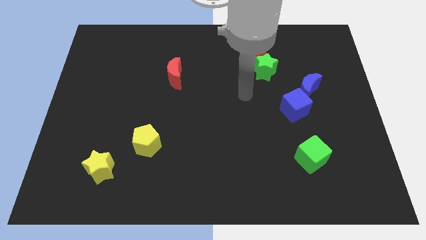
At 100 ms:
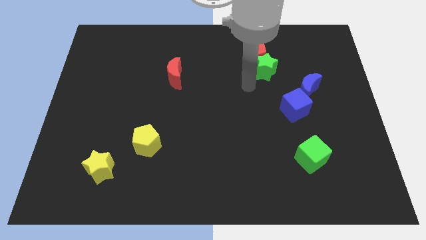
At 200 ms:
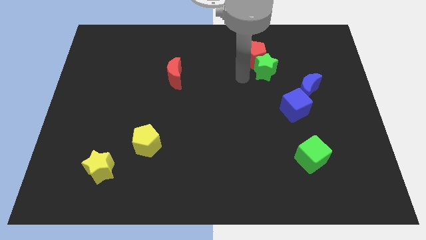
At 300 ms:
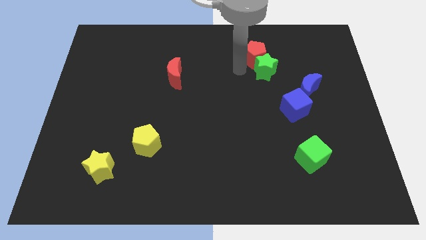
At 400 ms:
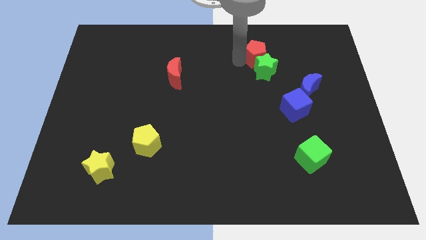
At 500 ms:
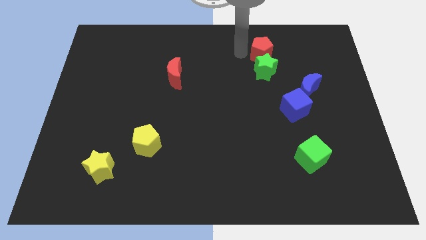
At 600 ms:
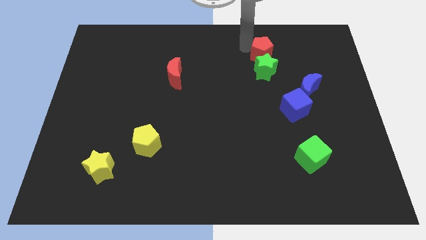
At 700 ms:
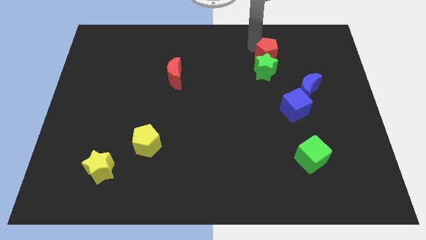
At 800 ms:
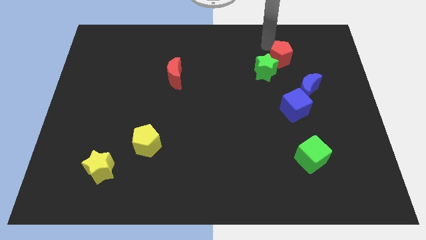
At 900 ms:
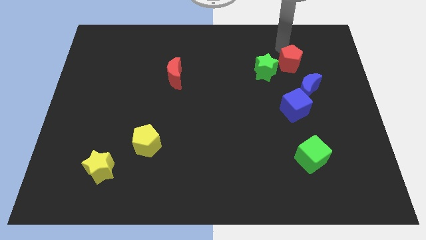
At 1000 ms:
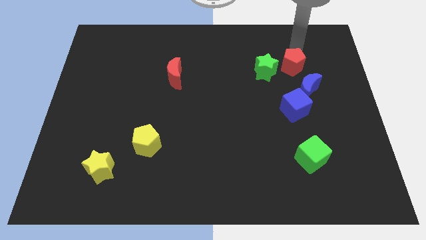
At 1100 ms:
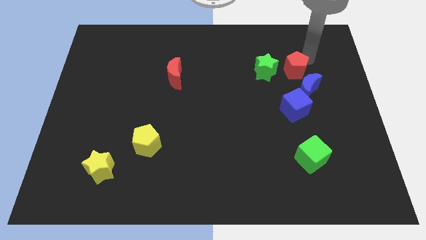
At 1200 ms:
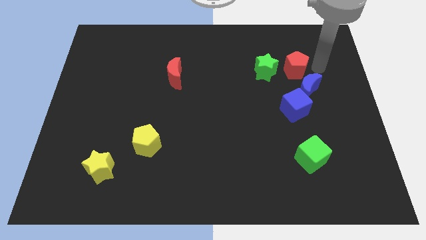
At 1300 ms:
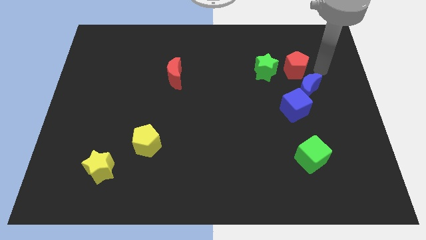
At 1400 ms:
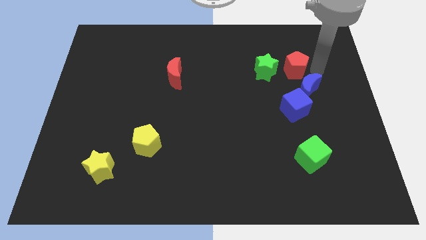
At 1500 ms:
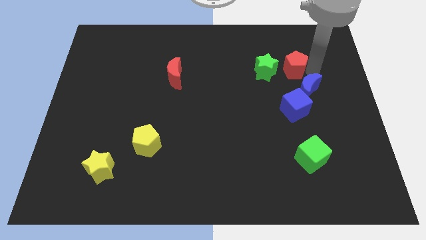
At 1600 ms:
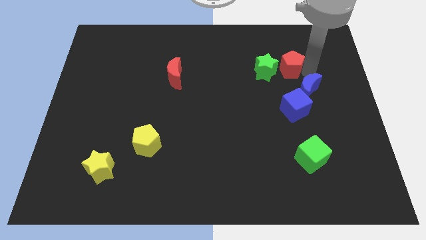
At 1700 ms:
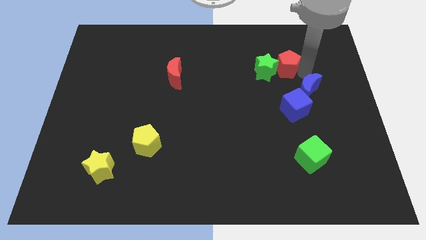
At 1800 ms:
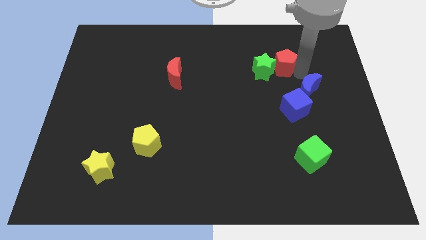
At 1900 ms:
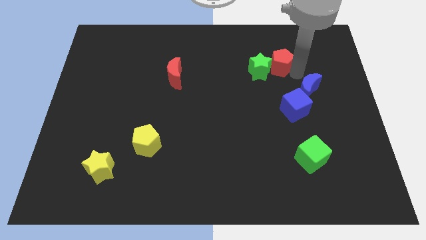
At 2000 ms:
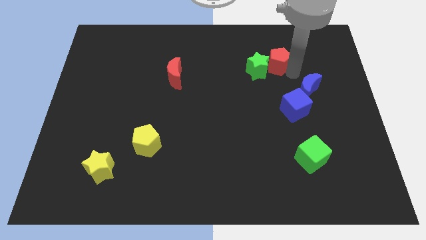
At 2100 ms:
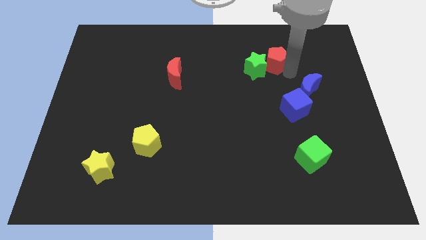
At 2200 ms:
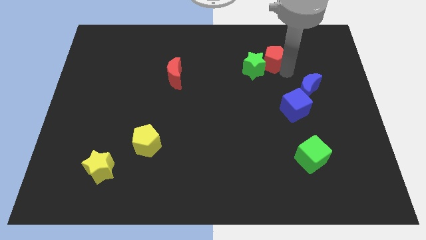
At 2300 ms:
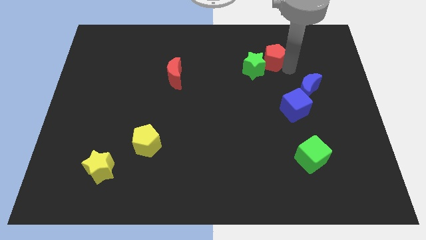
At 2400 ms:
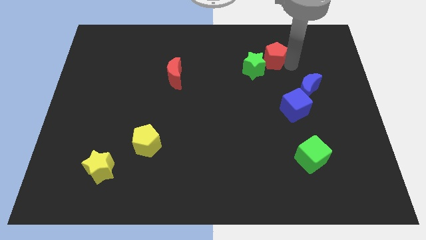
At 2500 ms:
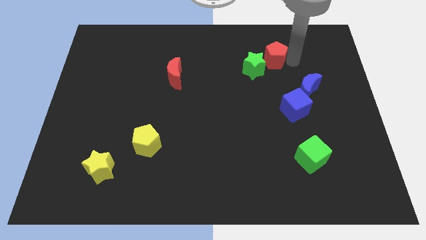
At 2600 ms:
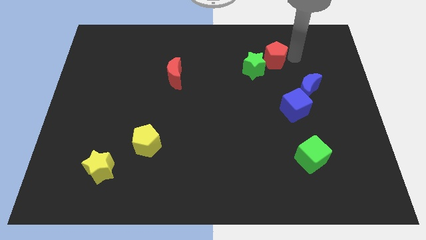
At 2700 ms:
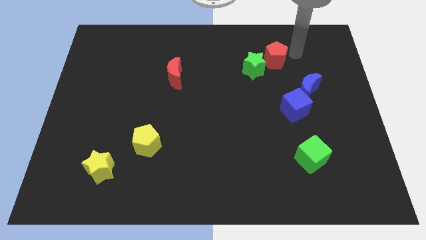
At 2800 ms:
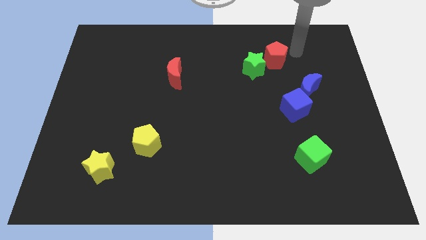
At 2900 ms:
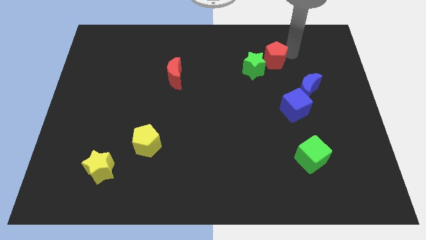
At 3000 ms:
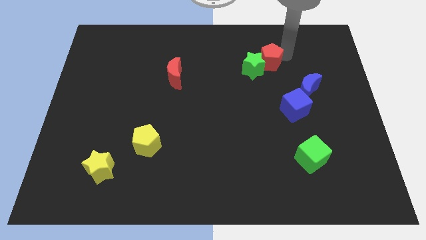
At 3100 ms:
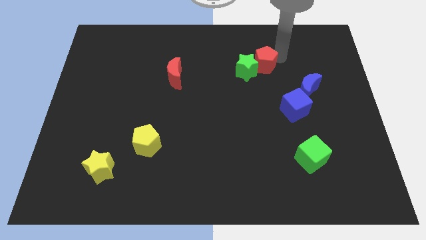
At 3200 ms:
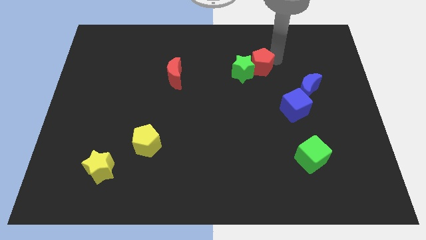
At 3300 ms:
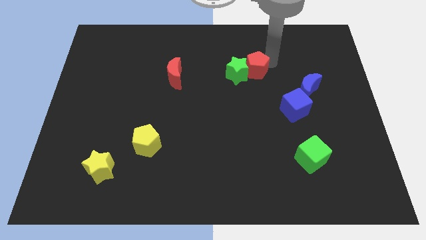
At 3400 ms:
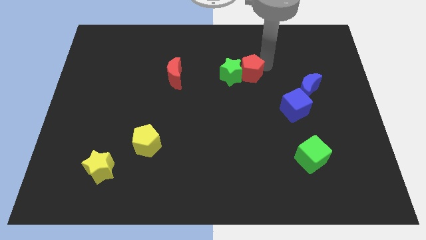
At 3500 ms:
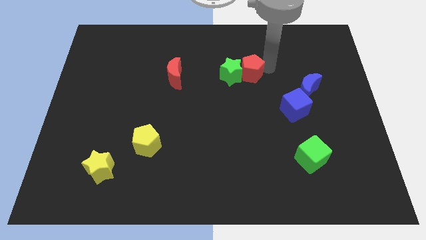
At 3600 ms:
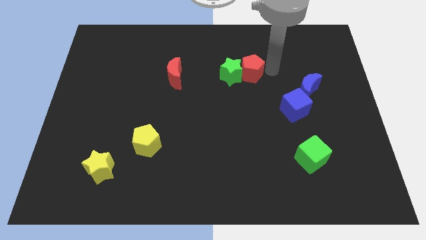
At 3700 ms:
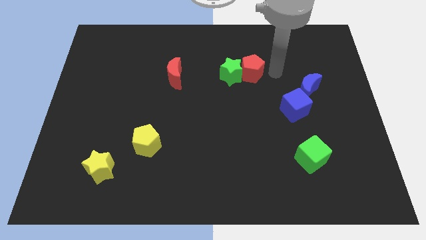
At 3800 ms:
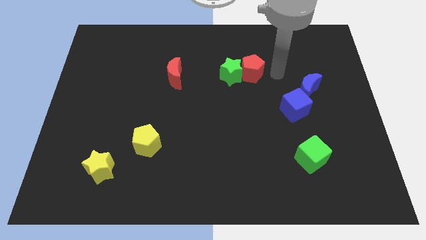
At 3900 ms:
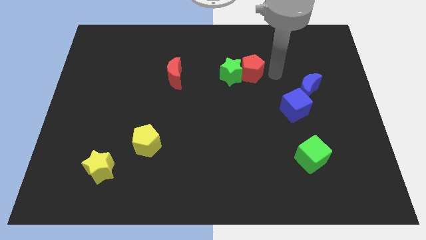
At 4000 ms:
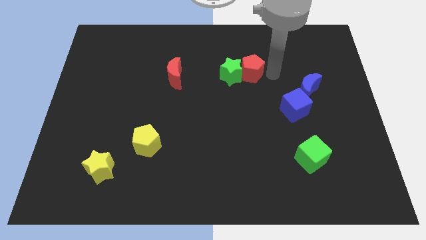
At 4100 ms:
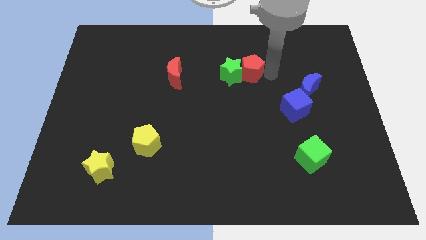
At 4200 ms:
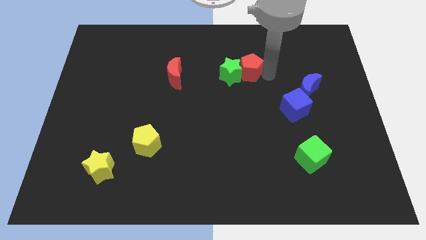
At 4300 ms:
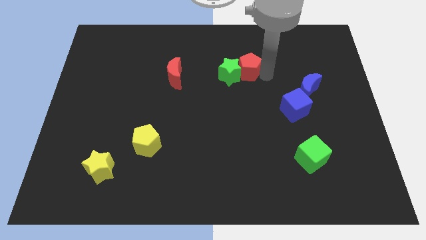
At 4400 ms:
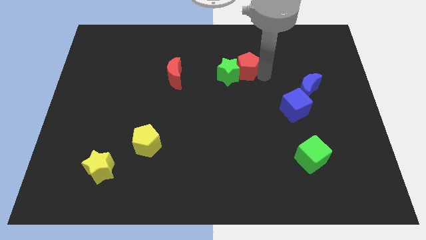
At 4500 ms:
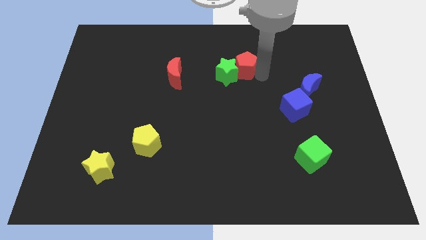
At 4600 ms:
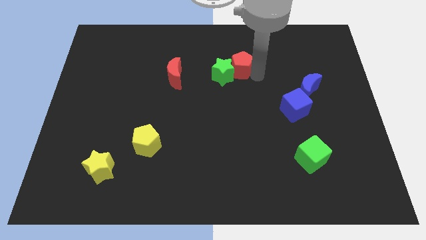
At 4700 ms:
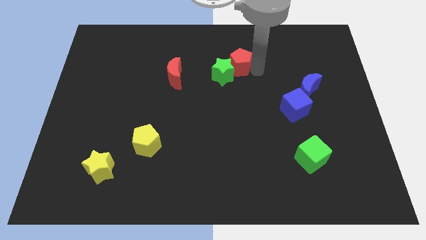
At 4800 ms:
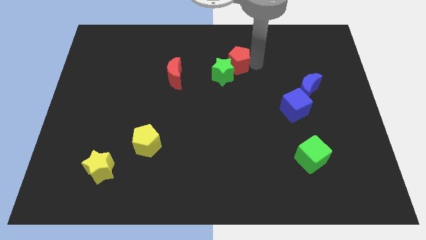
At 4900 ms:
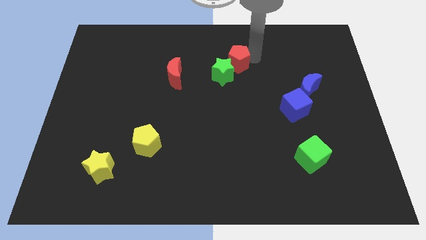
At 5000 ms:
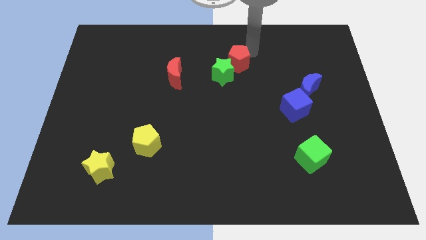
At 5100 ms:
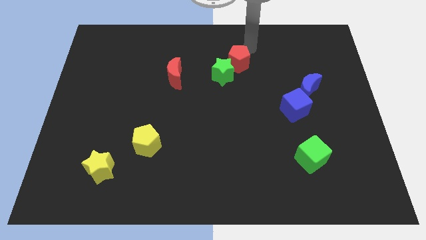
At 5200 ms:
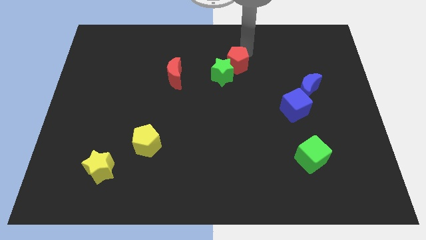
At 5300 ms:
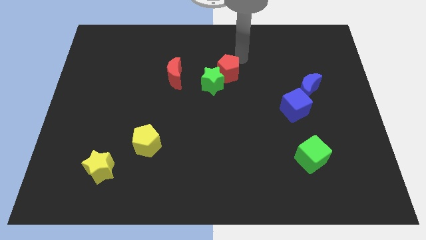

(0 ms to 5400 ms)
push the red pentagon a little downwards and left

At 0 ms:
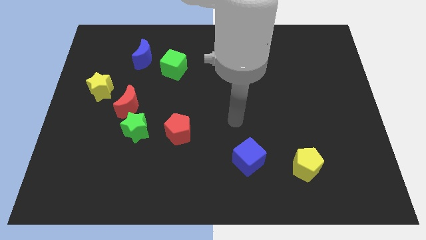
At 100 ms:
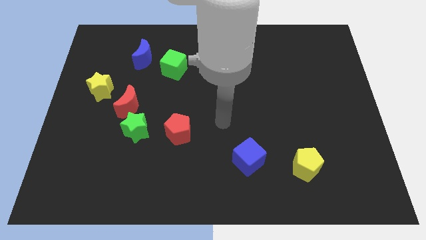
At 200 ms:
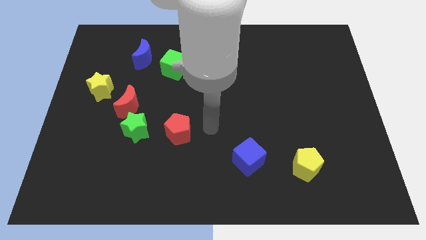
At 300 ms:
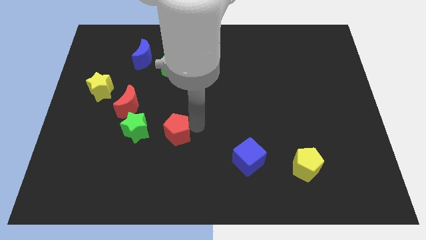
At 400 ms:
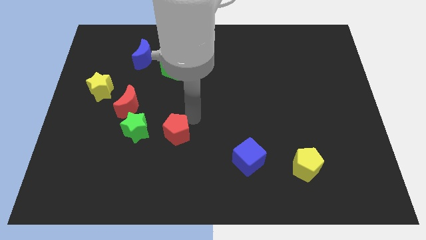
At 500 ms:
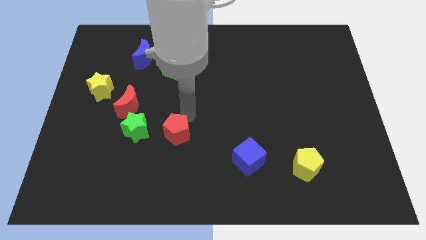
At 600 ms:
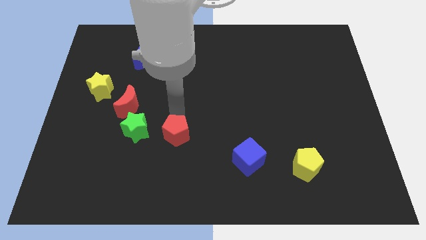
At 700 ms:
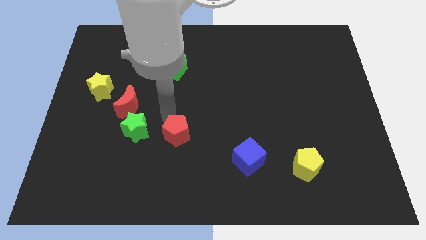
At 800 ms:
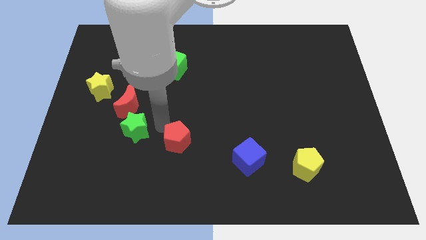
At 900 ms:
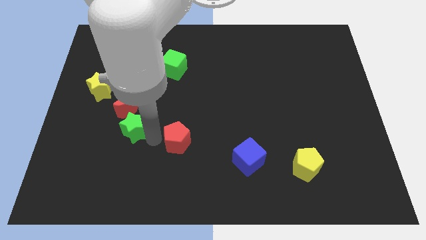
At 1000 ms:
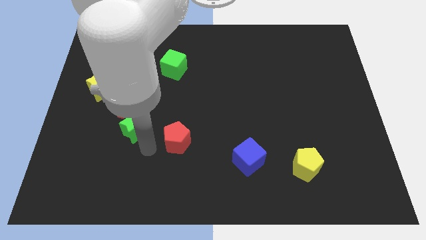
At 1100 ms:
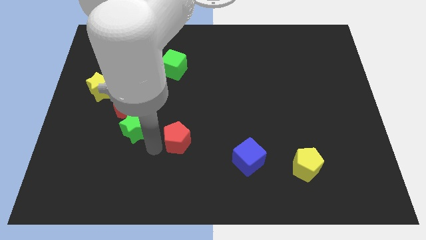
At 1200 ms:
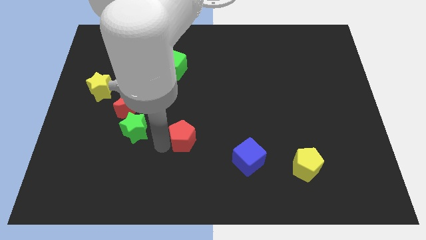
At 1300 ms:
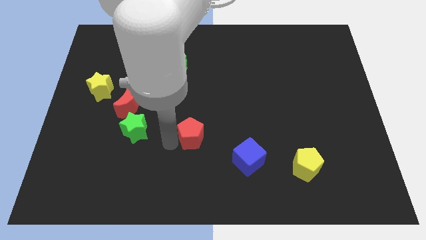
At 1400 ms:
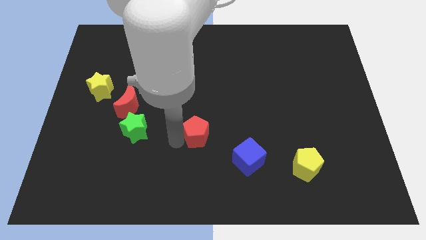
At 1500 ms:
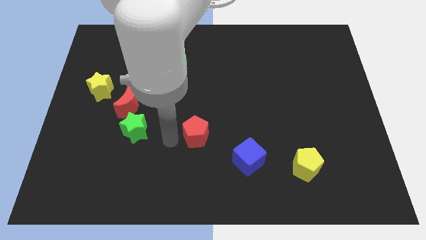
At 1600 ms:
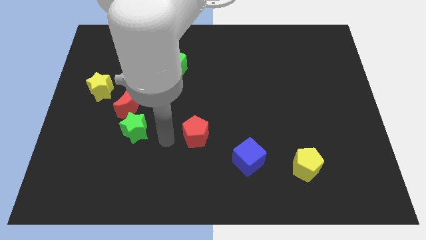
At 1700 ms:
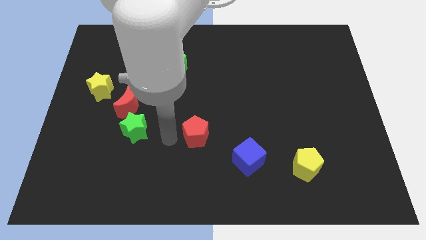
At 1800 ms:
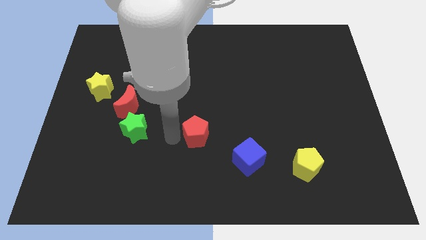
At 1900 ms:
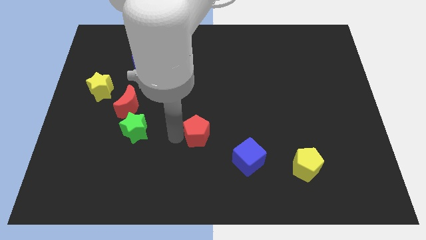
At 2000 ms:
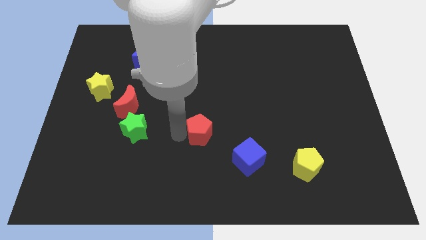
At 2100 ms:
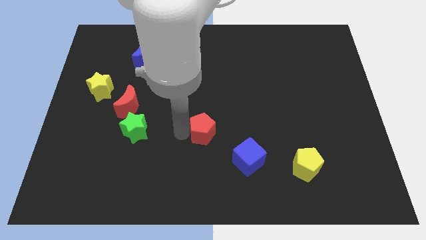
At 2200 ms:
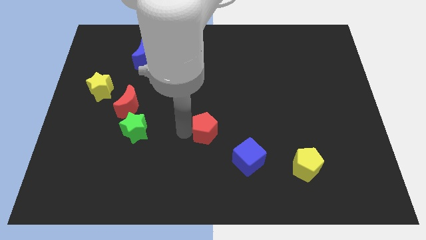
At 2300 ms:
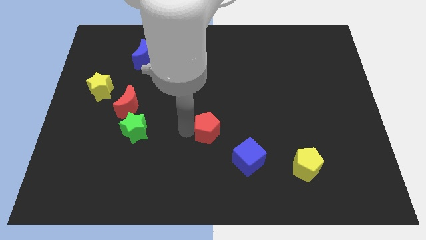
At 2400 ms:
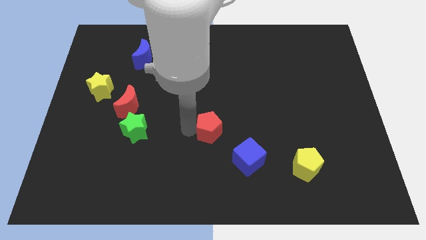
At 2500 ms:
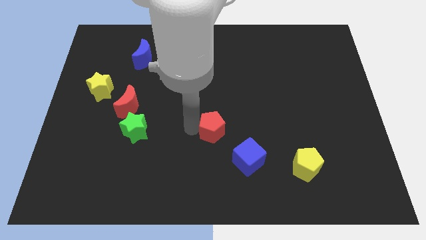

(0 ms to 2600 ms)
push the red pentagon a little bit to the right
